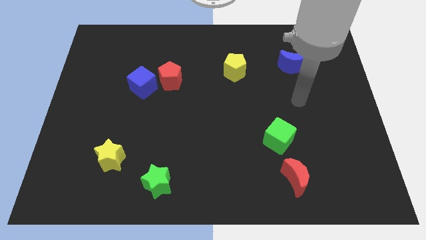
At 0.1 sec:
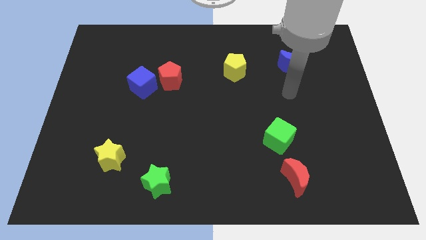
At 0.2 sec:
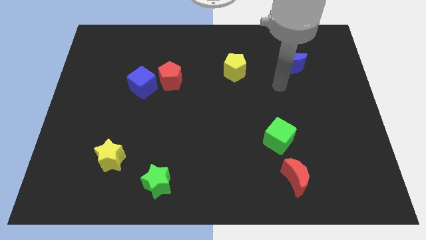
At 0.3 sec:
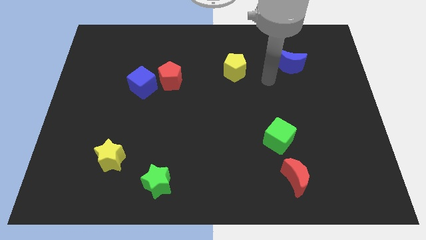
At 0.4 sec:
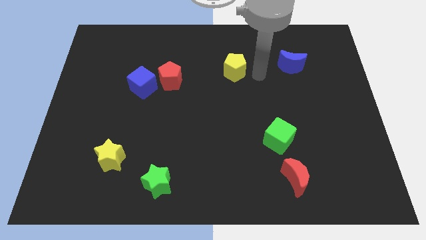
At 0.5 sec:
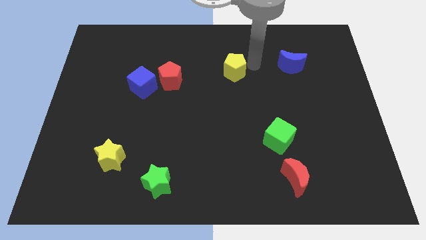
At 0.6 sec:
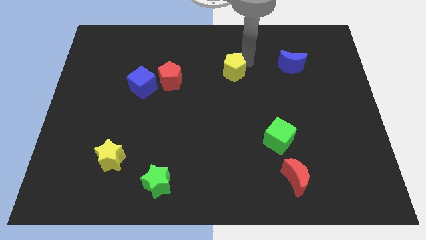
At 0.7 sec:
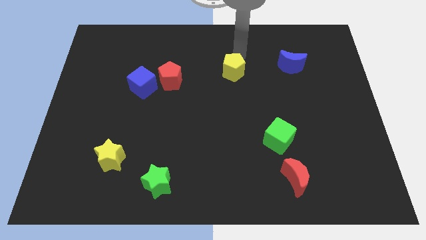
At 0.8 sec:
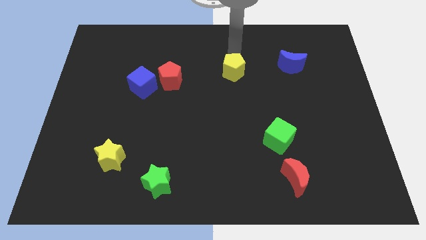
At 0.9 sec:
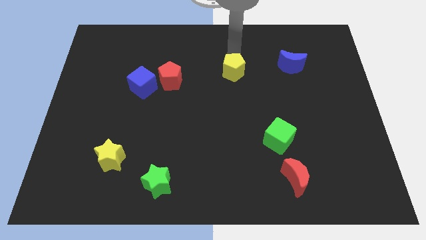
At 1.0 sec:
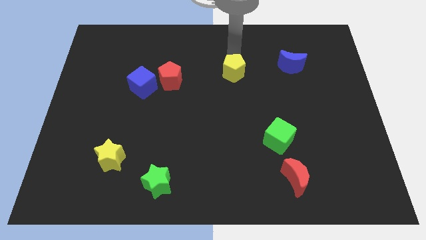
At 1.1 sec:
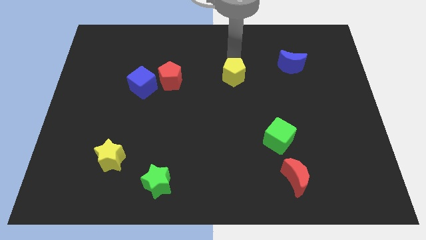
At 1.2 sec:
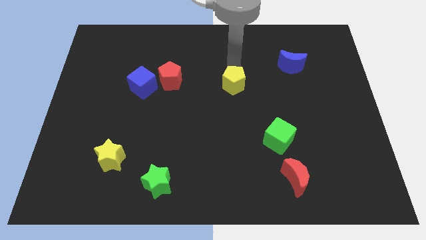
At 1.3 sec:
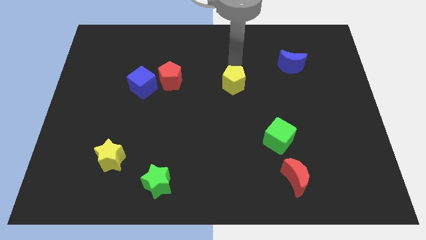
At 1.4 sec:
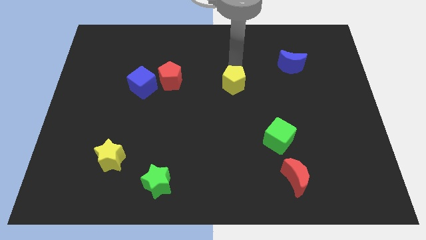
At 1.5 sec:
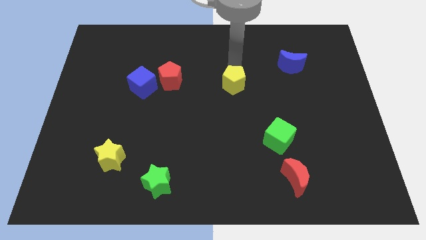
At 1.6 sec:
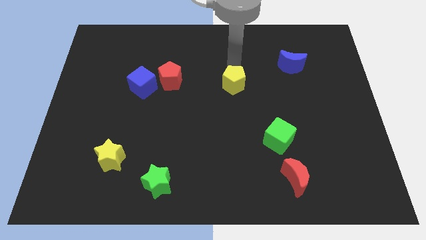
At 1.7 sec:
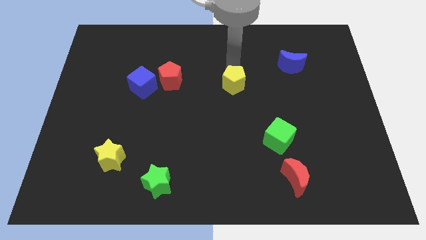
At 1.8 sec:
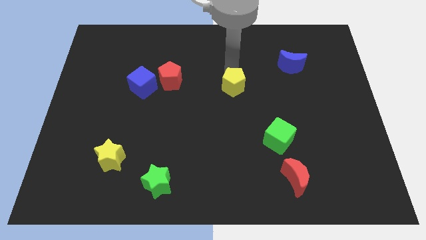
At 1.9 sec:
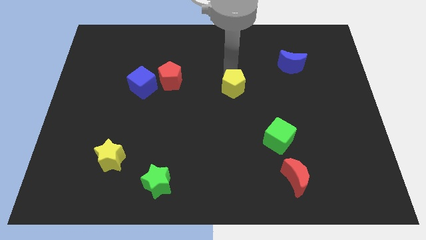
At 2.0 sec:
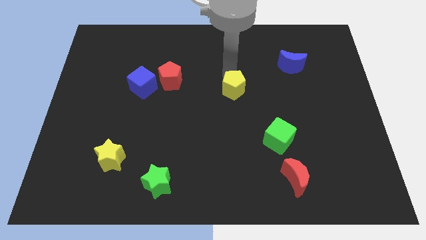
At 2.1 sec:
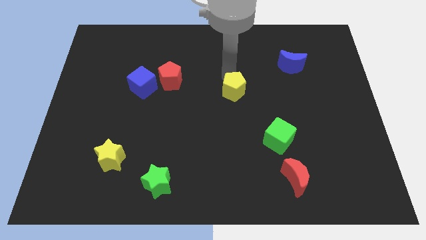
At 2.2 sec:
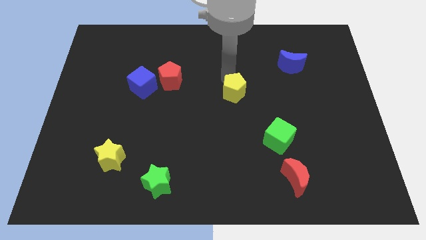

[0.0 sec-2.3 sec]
push the yellow pentagon a little down

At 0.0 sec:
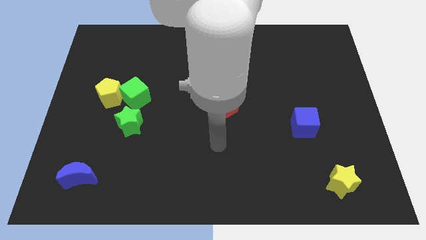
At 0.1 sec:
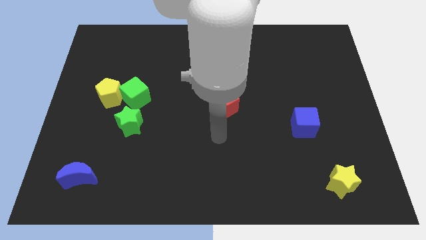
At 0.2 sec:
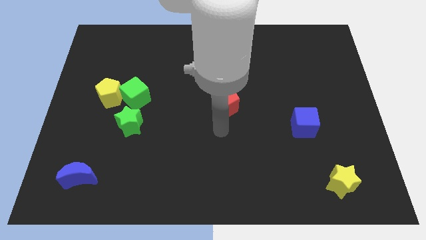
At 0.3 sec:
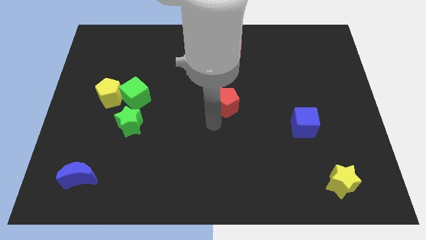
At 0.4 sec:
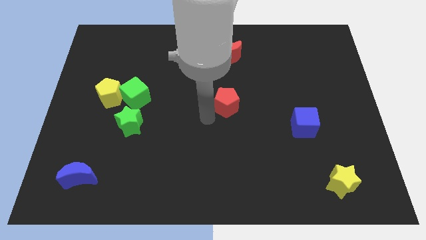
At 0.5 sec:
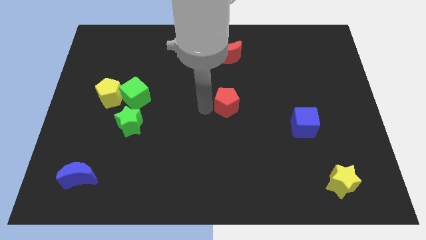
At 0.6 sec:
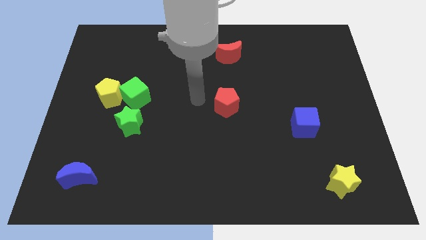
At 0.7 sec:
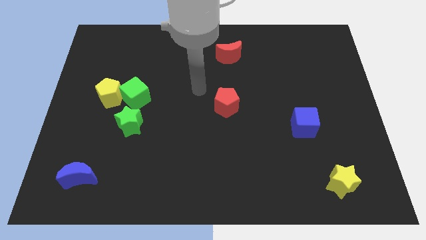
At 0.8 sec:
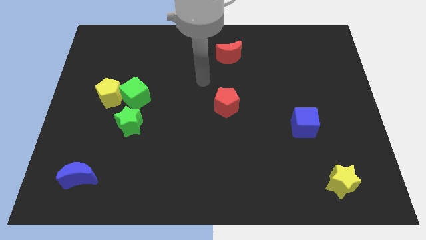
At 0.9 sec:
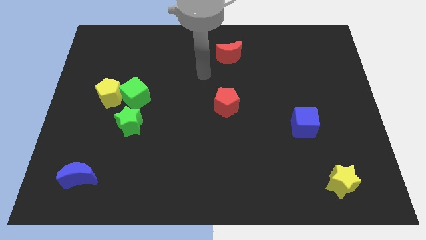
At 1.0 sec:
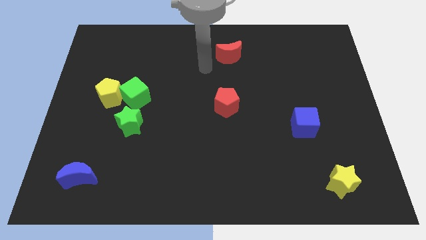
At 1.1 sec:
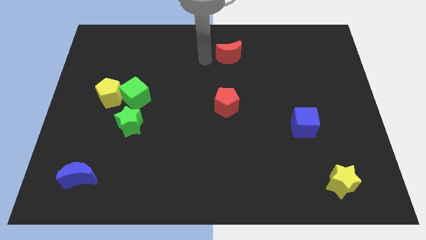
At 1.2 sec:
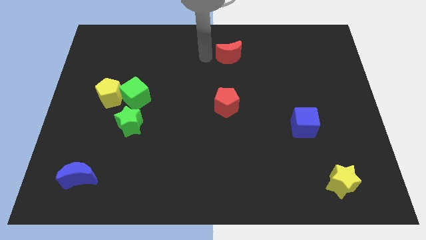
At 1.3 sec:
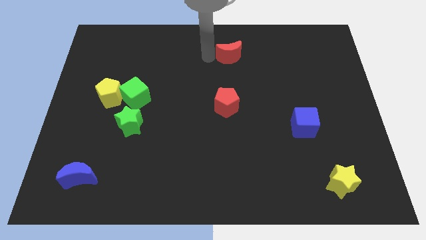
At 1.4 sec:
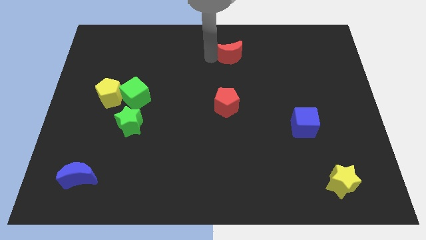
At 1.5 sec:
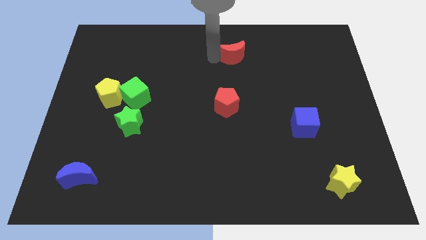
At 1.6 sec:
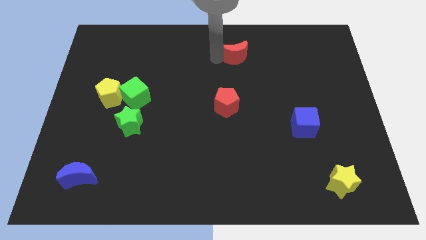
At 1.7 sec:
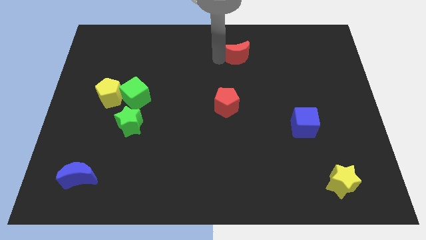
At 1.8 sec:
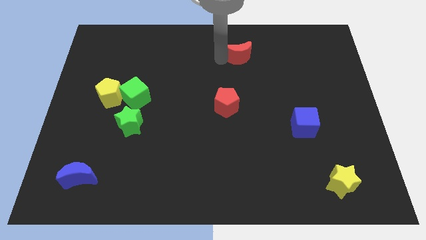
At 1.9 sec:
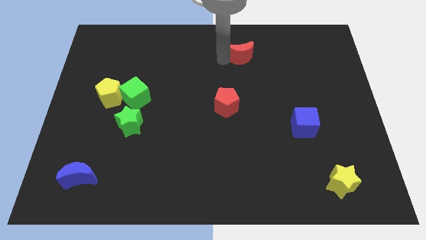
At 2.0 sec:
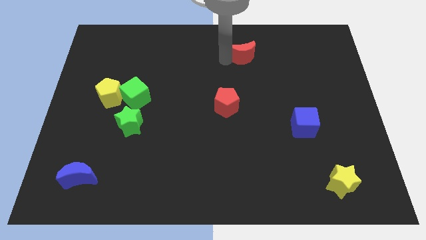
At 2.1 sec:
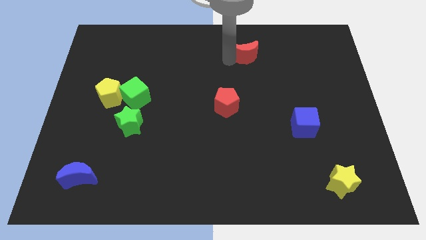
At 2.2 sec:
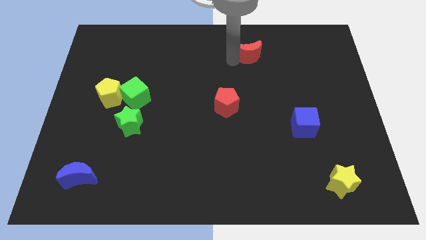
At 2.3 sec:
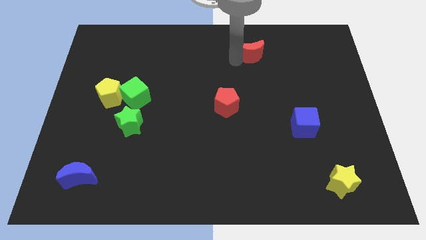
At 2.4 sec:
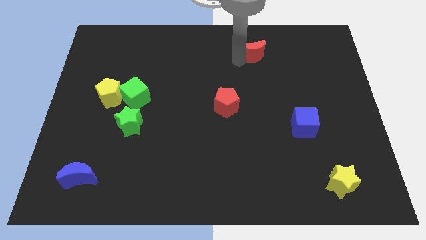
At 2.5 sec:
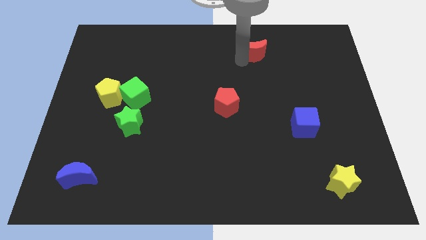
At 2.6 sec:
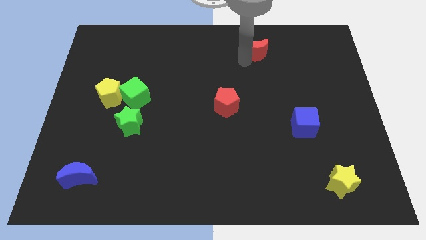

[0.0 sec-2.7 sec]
move the red moon right a little

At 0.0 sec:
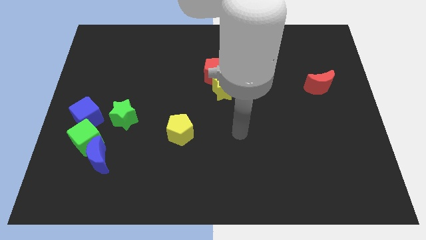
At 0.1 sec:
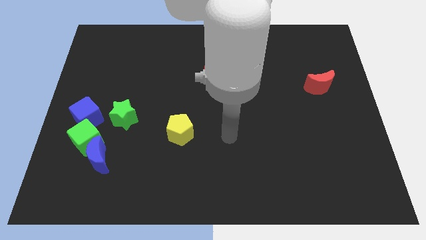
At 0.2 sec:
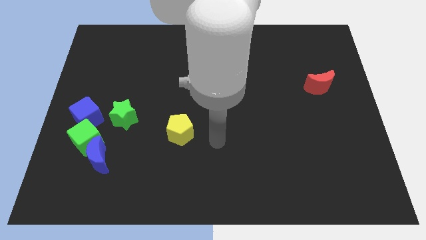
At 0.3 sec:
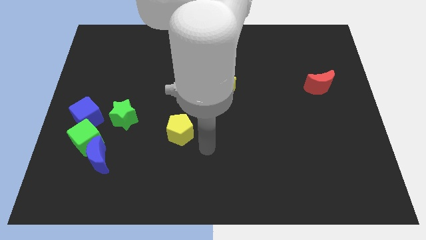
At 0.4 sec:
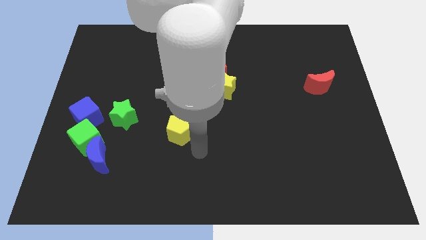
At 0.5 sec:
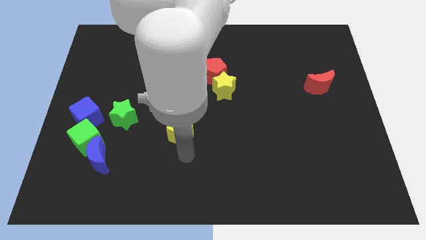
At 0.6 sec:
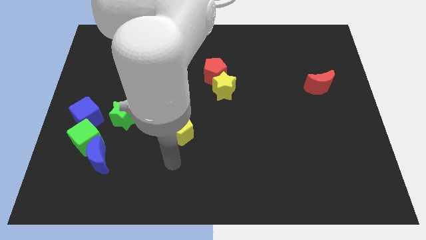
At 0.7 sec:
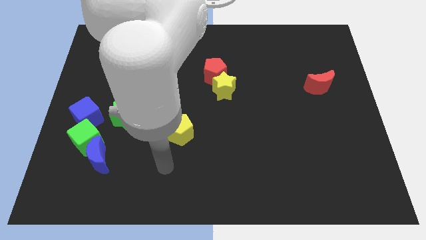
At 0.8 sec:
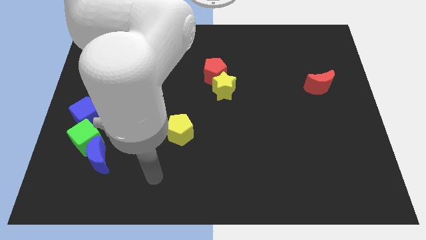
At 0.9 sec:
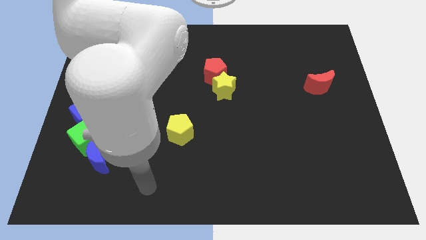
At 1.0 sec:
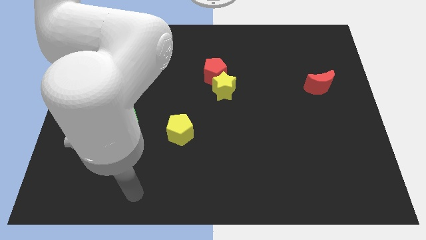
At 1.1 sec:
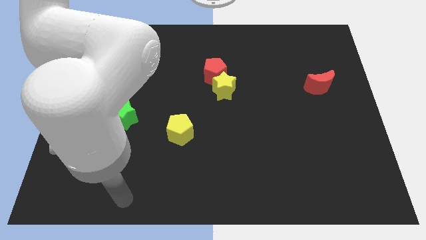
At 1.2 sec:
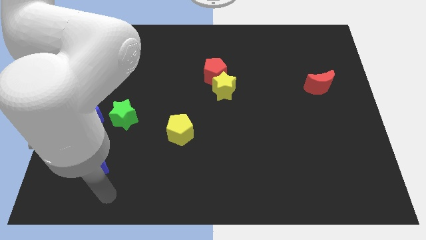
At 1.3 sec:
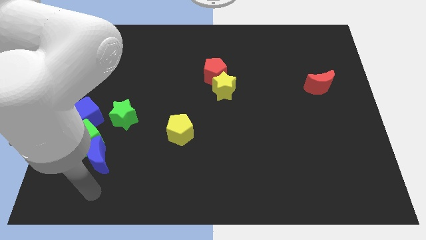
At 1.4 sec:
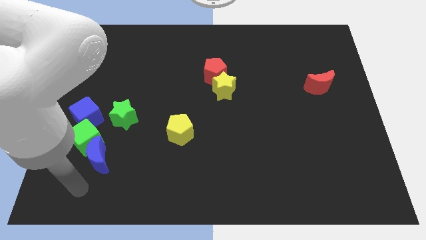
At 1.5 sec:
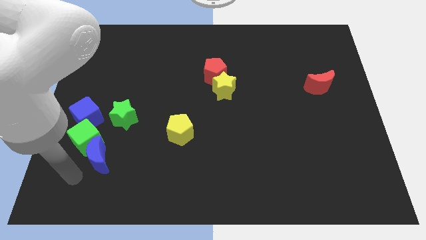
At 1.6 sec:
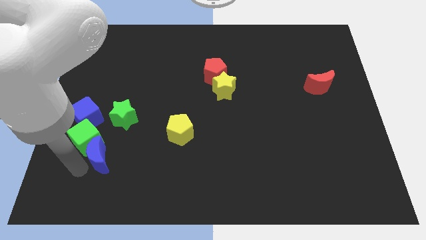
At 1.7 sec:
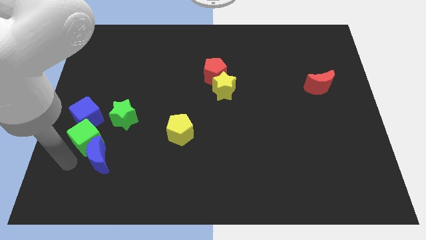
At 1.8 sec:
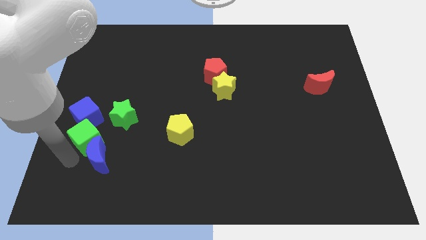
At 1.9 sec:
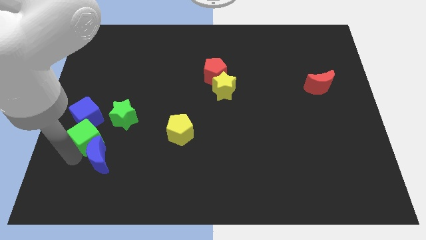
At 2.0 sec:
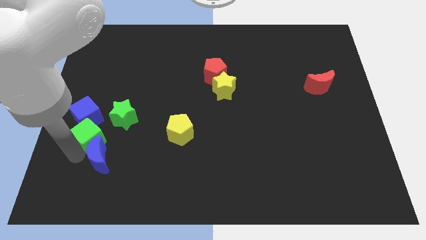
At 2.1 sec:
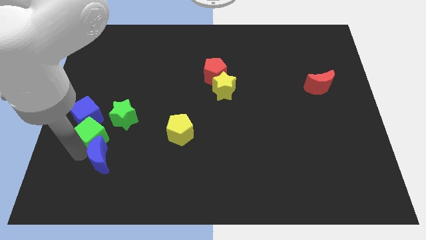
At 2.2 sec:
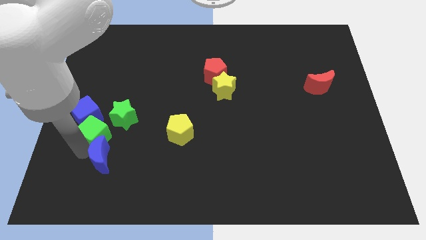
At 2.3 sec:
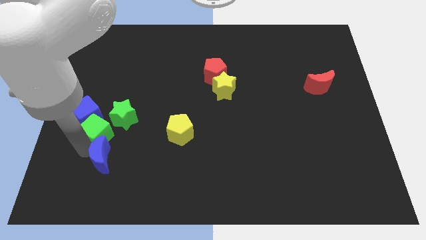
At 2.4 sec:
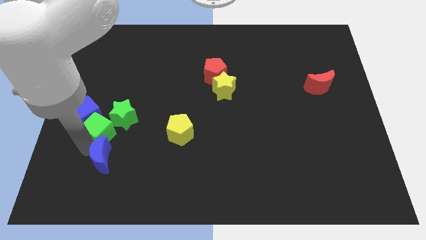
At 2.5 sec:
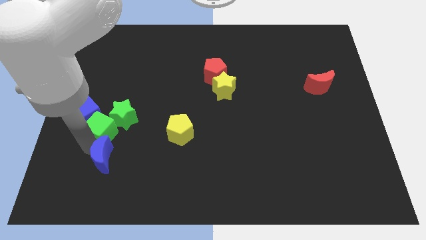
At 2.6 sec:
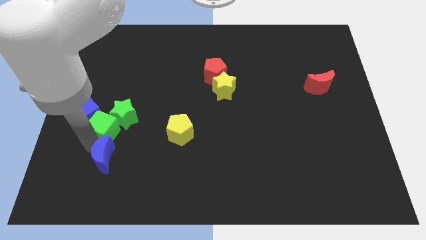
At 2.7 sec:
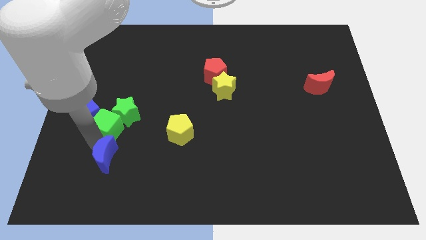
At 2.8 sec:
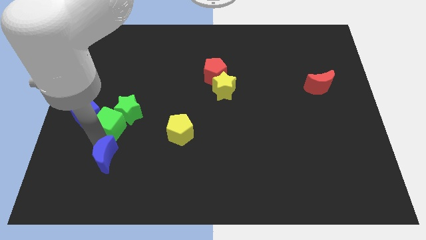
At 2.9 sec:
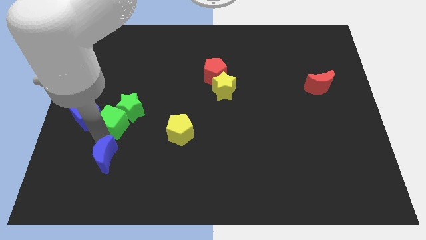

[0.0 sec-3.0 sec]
push the green cube upwards and right diagonally slightly

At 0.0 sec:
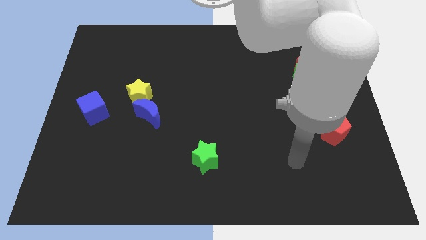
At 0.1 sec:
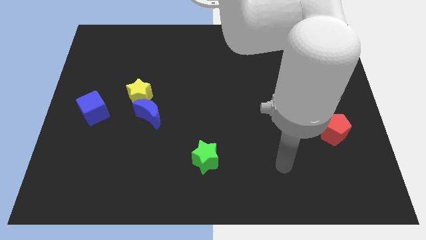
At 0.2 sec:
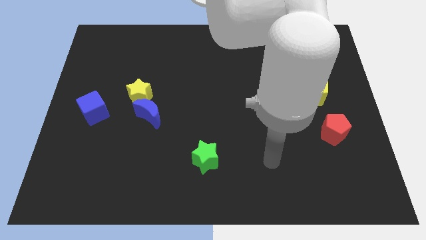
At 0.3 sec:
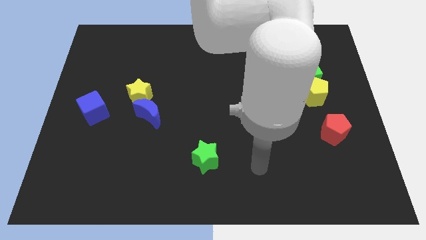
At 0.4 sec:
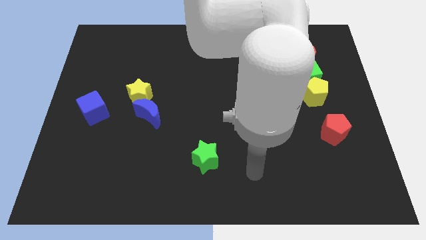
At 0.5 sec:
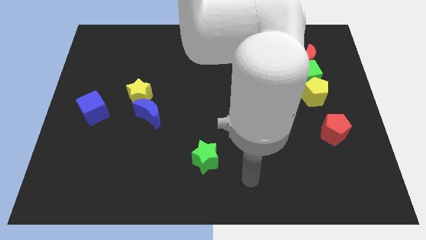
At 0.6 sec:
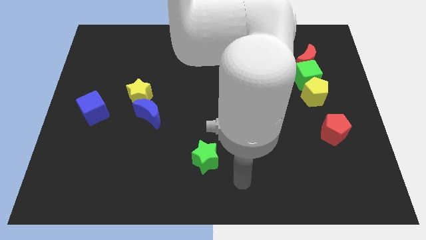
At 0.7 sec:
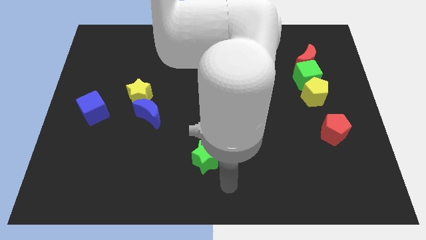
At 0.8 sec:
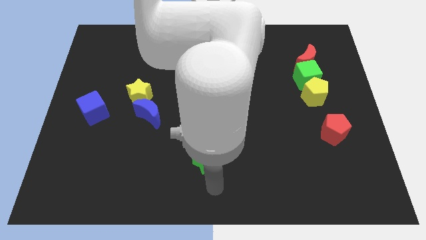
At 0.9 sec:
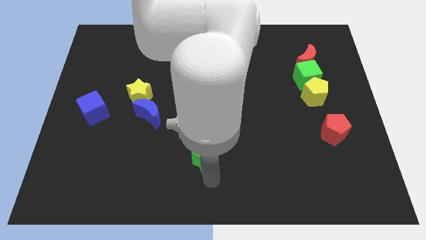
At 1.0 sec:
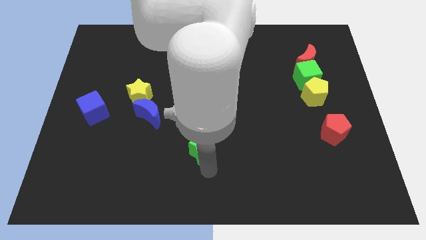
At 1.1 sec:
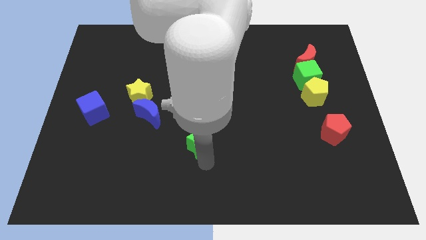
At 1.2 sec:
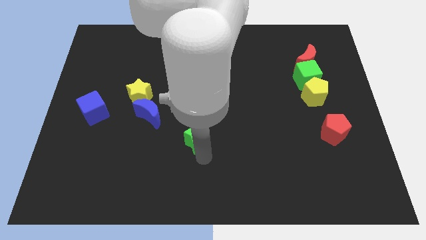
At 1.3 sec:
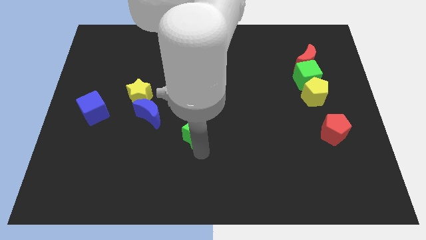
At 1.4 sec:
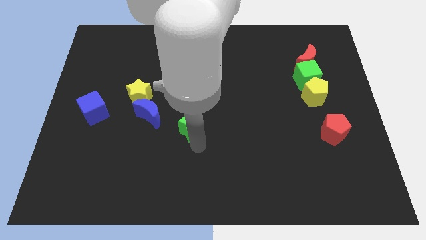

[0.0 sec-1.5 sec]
move the green star a little up
